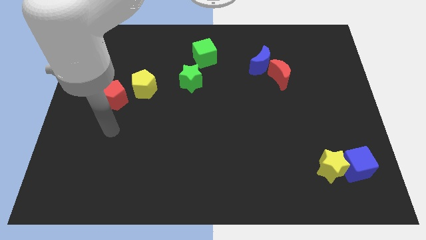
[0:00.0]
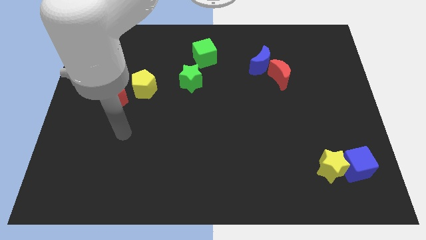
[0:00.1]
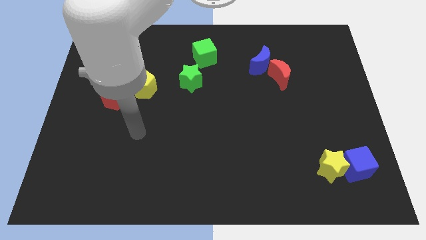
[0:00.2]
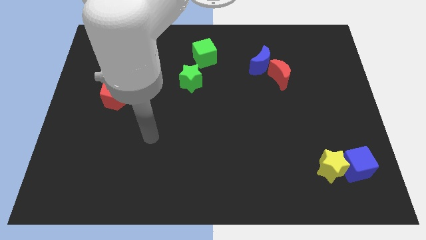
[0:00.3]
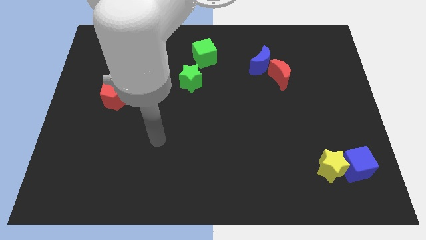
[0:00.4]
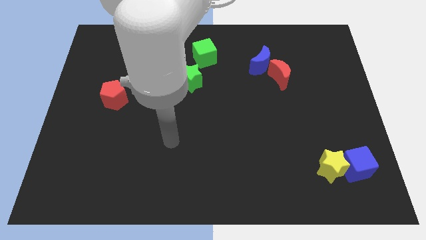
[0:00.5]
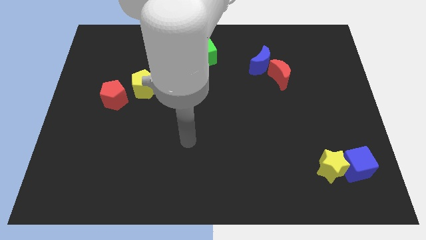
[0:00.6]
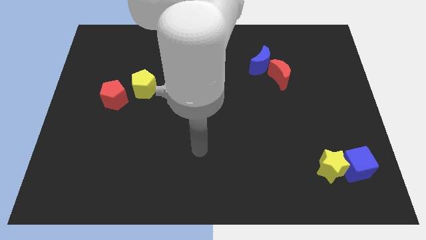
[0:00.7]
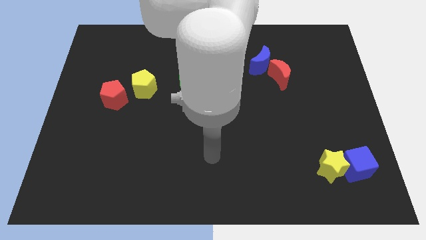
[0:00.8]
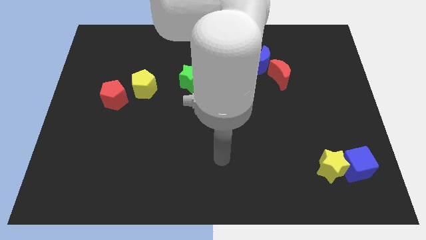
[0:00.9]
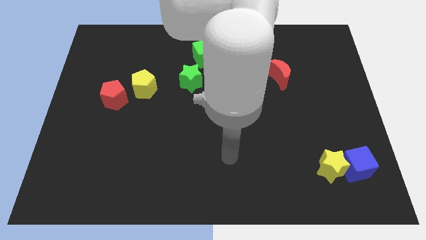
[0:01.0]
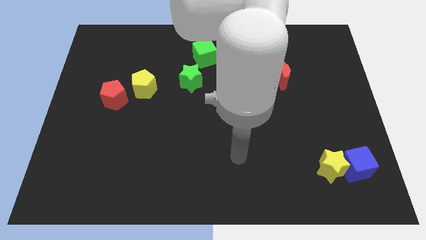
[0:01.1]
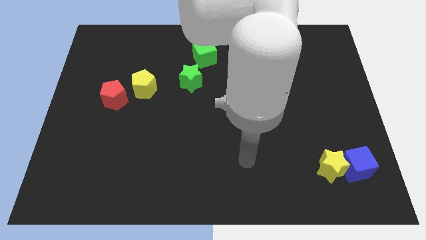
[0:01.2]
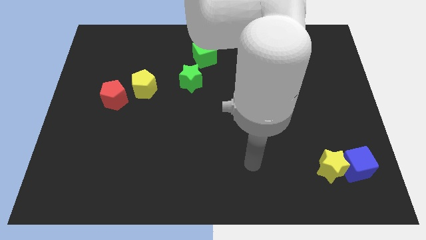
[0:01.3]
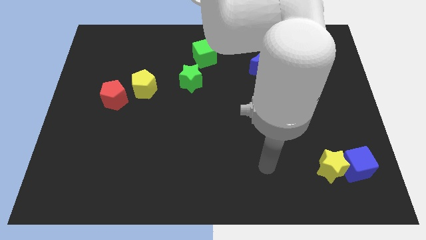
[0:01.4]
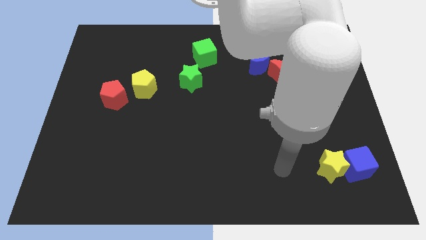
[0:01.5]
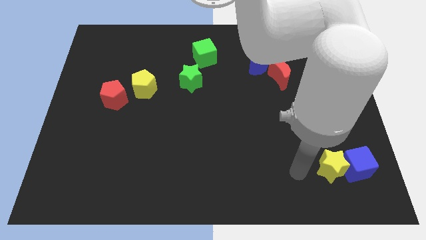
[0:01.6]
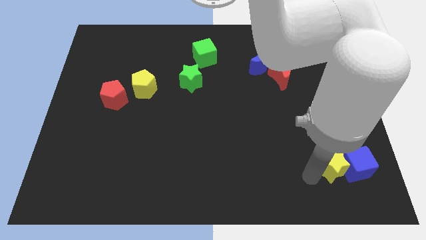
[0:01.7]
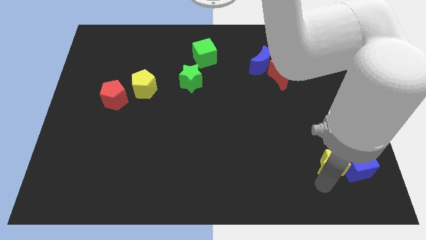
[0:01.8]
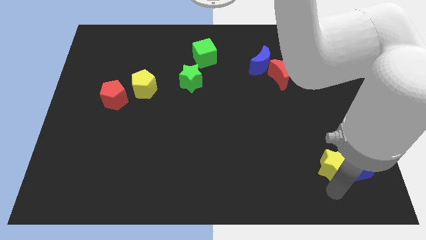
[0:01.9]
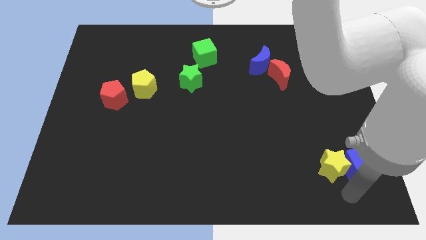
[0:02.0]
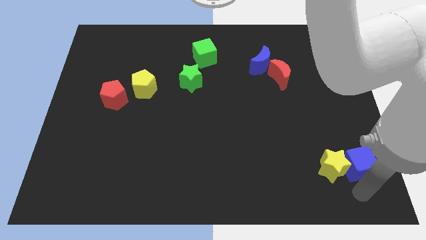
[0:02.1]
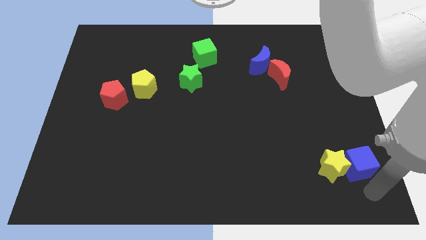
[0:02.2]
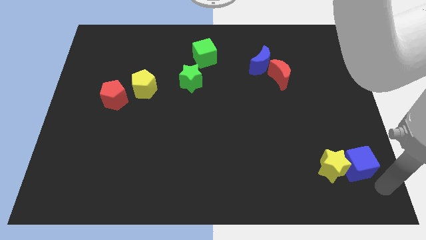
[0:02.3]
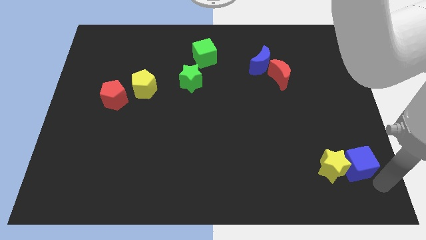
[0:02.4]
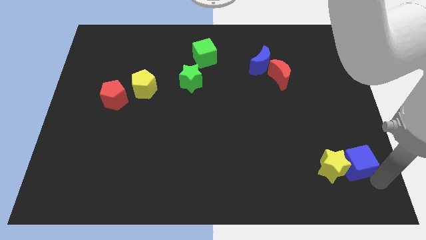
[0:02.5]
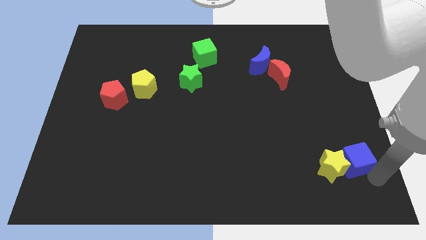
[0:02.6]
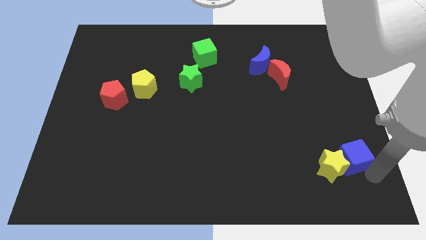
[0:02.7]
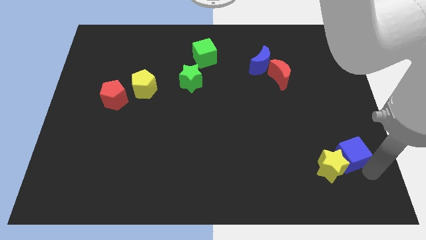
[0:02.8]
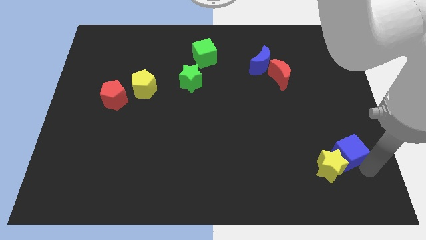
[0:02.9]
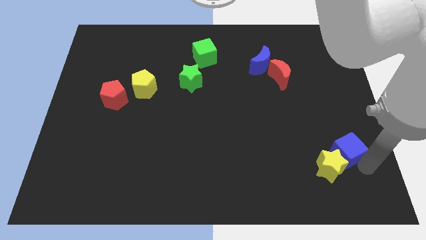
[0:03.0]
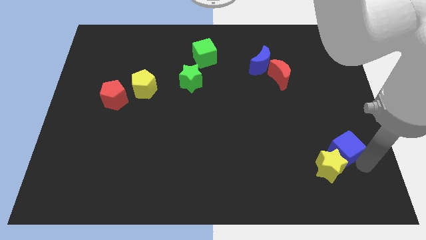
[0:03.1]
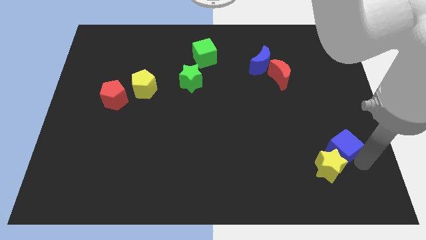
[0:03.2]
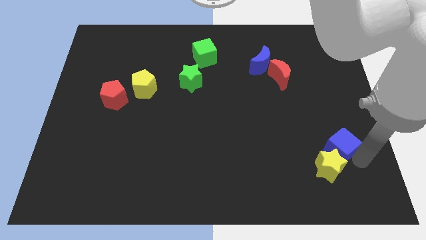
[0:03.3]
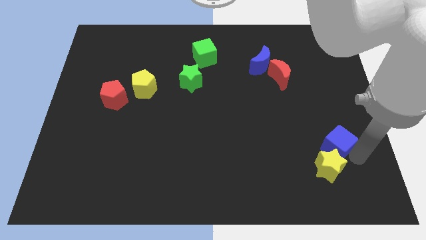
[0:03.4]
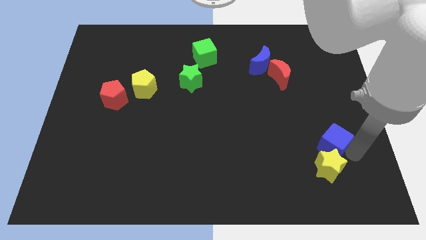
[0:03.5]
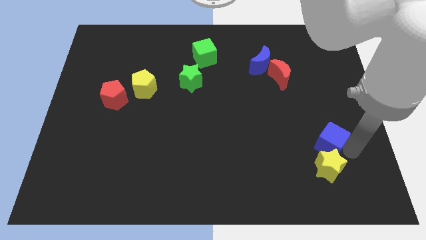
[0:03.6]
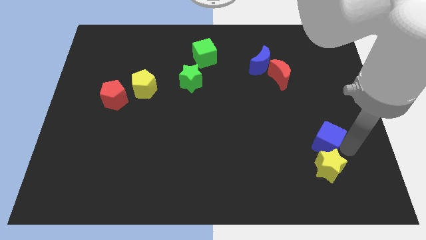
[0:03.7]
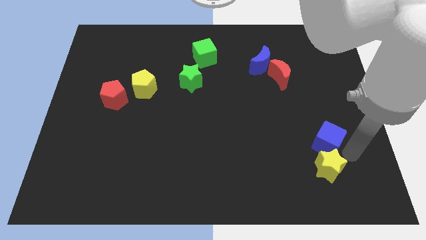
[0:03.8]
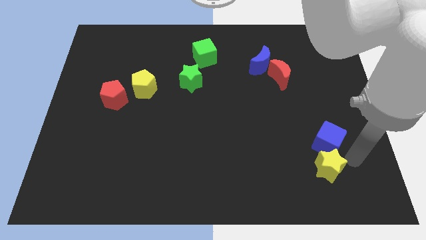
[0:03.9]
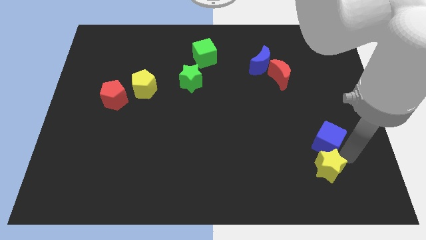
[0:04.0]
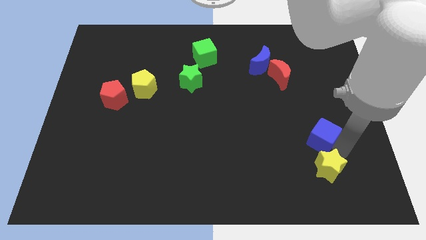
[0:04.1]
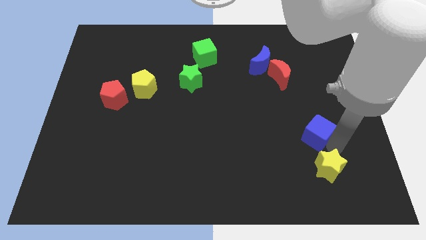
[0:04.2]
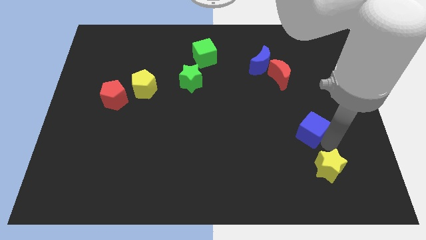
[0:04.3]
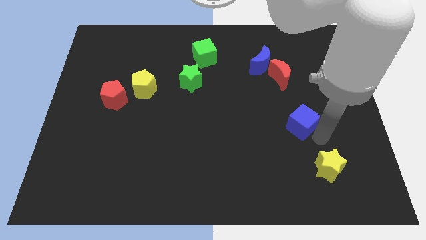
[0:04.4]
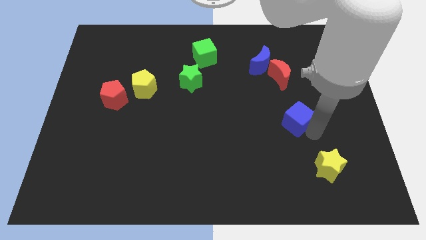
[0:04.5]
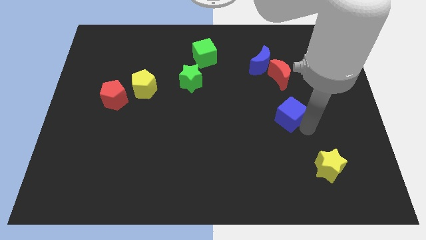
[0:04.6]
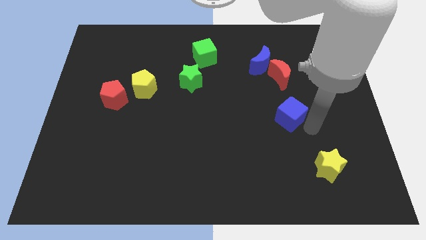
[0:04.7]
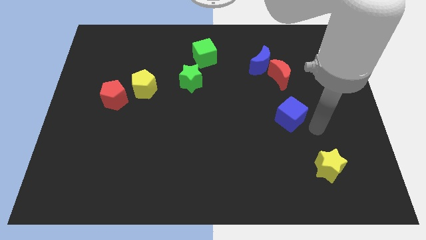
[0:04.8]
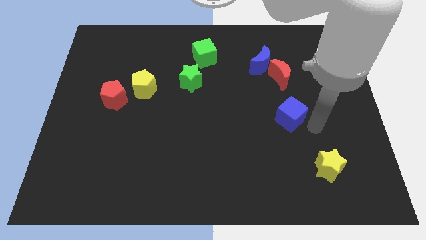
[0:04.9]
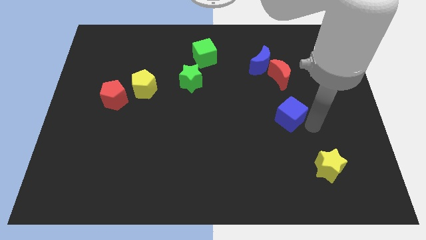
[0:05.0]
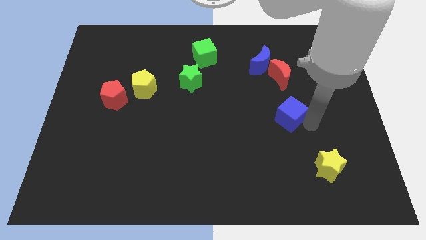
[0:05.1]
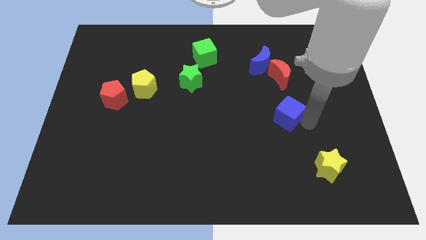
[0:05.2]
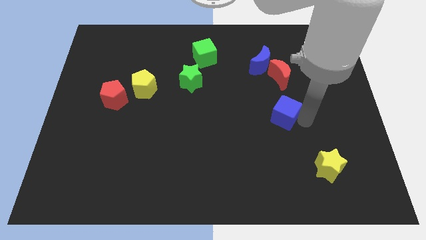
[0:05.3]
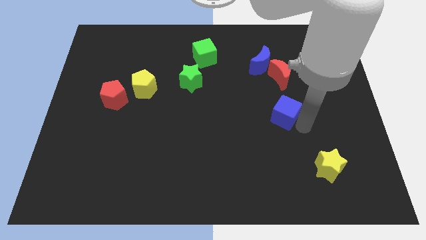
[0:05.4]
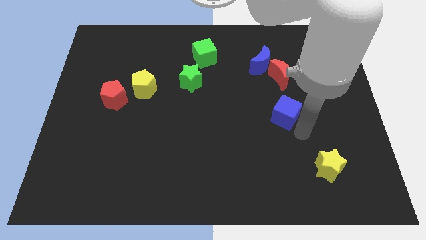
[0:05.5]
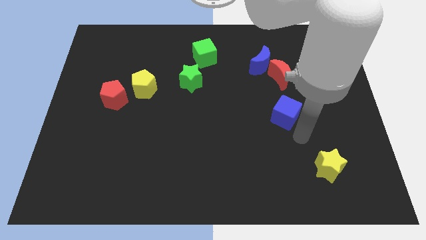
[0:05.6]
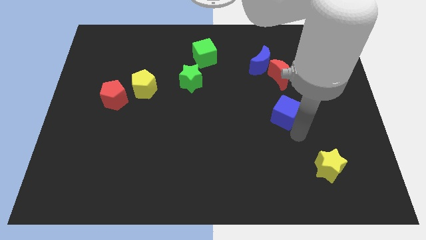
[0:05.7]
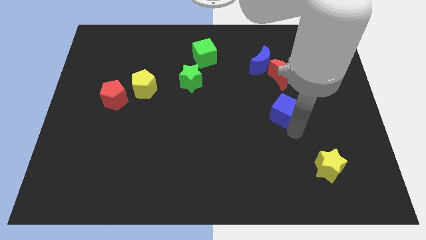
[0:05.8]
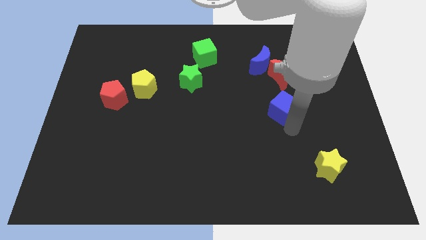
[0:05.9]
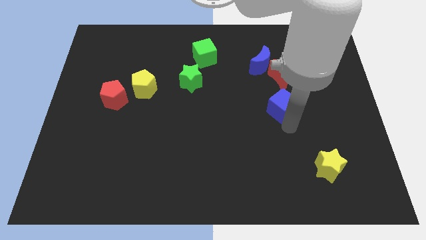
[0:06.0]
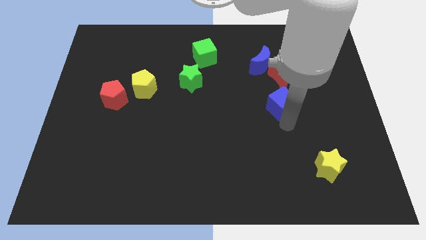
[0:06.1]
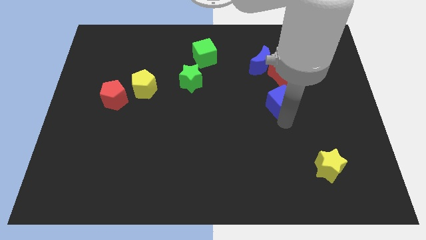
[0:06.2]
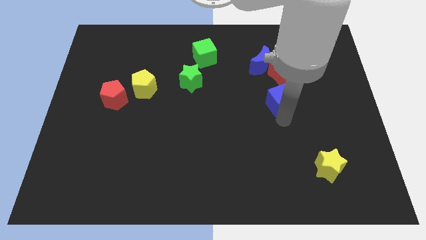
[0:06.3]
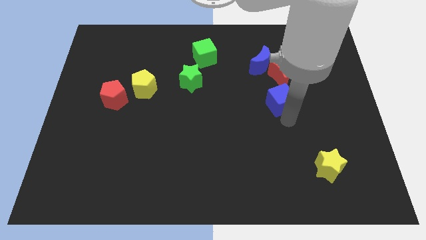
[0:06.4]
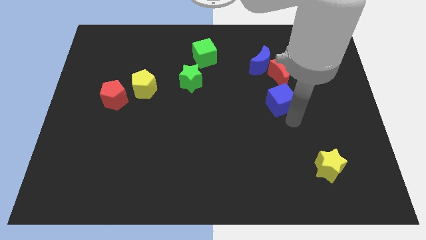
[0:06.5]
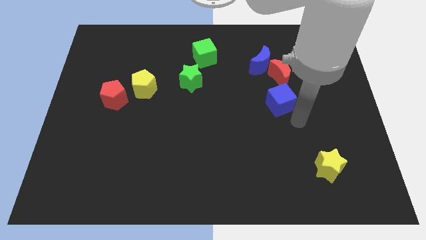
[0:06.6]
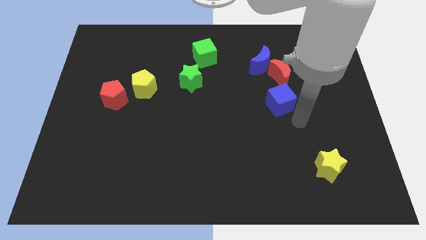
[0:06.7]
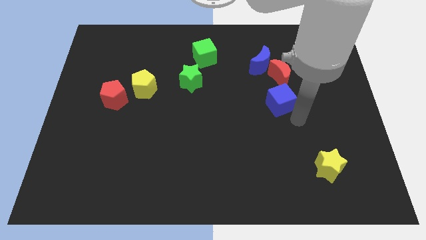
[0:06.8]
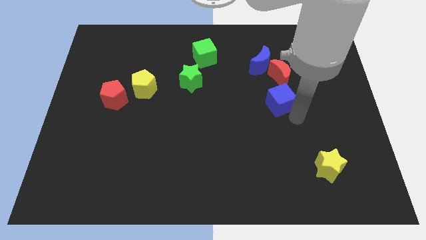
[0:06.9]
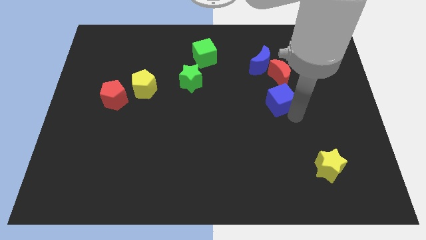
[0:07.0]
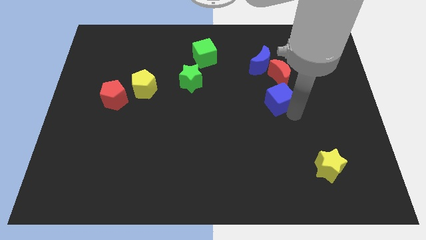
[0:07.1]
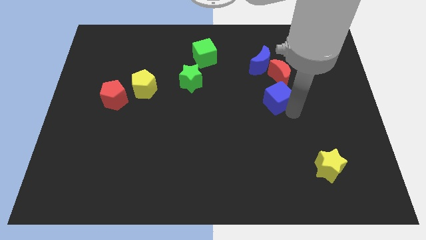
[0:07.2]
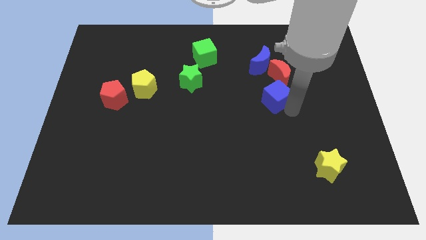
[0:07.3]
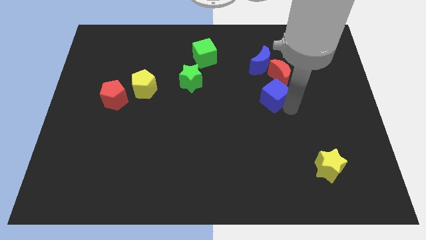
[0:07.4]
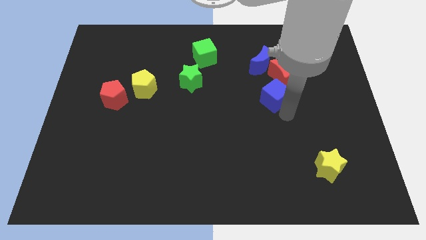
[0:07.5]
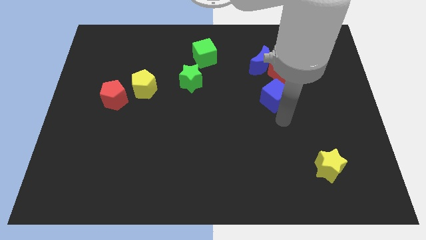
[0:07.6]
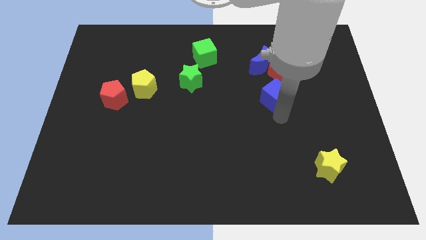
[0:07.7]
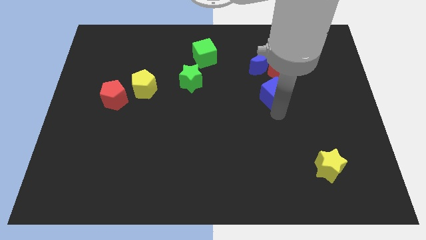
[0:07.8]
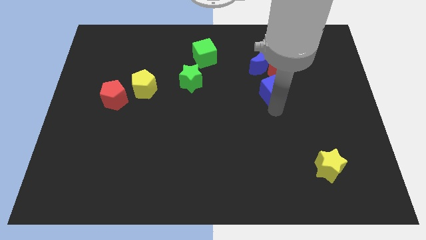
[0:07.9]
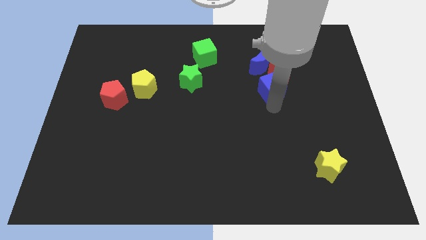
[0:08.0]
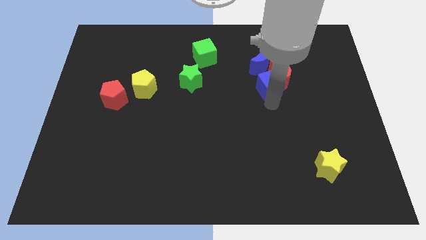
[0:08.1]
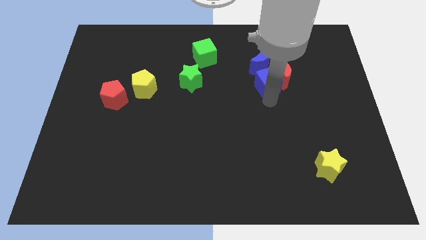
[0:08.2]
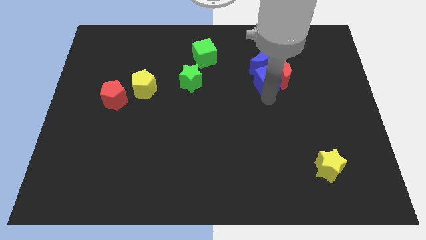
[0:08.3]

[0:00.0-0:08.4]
push the blue cube close to the blue moon
